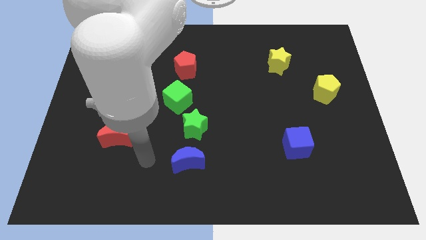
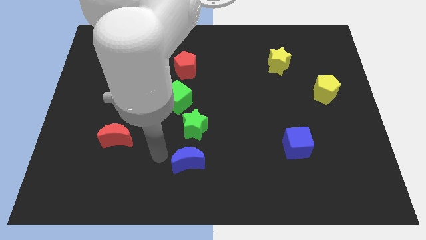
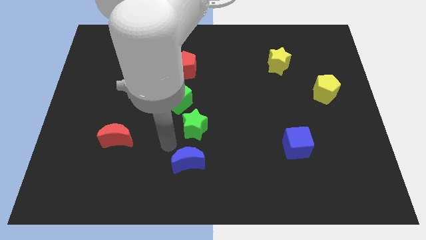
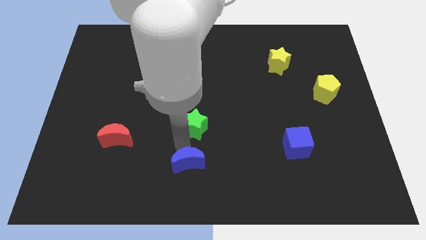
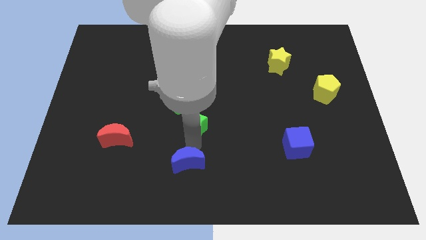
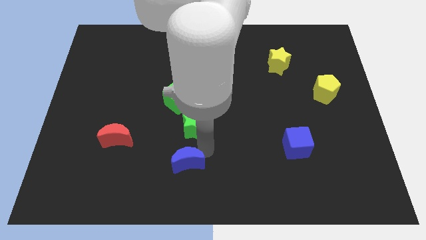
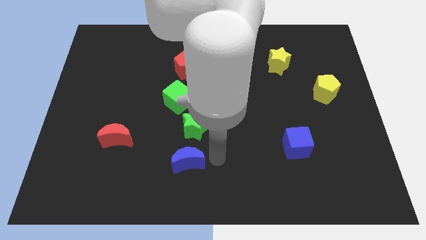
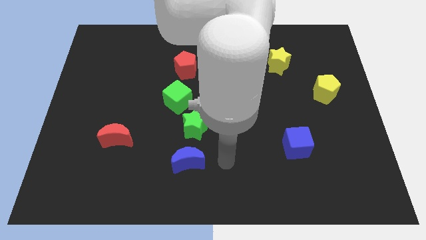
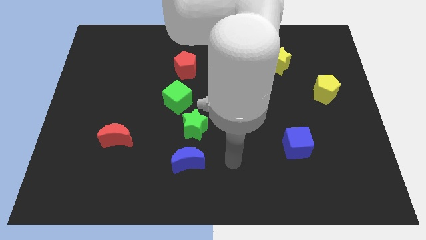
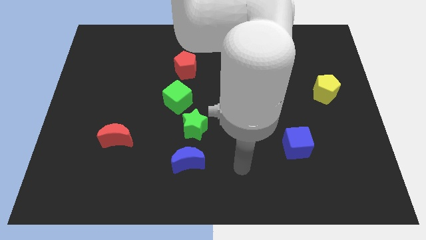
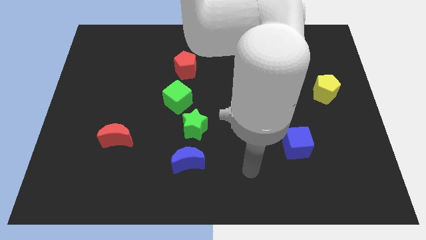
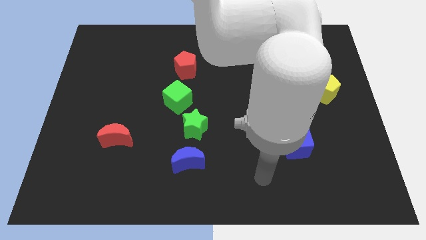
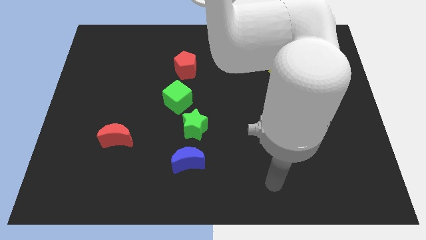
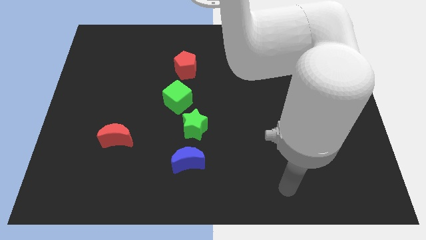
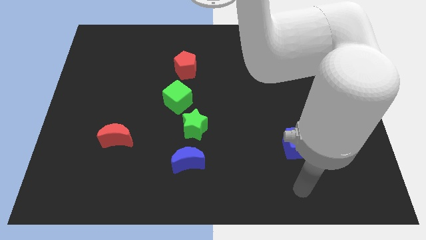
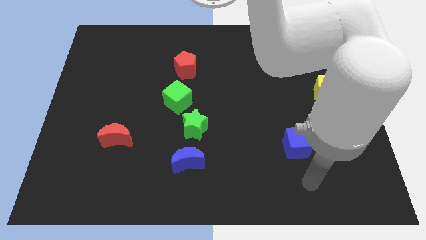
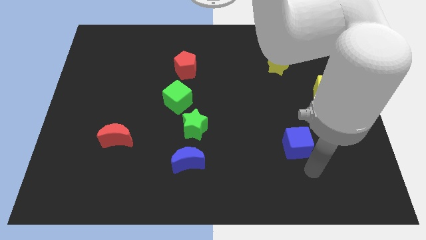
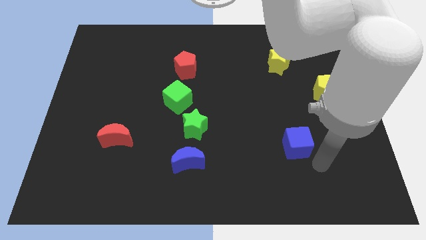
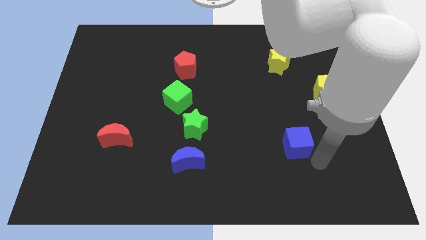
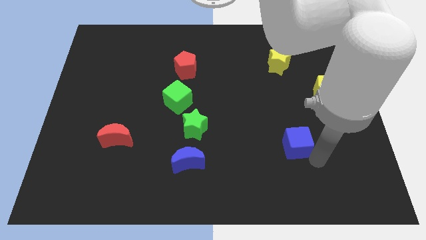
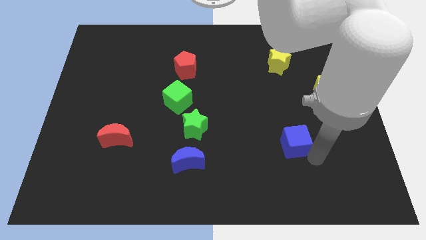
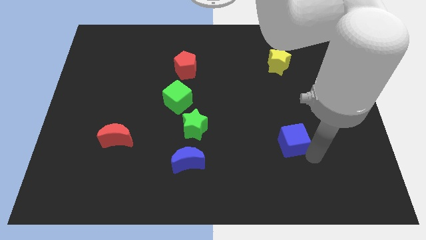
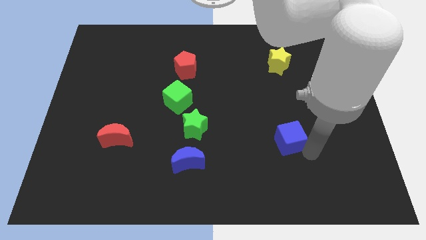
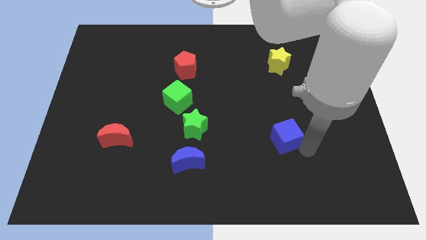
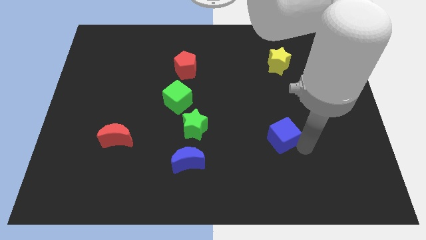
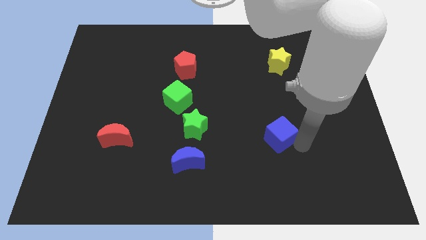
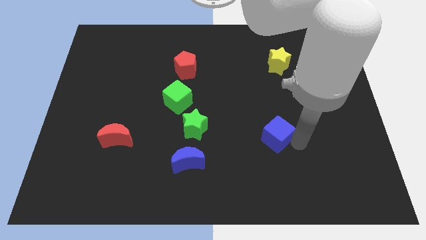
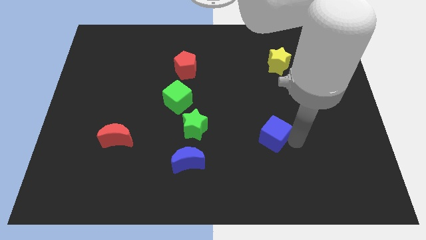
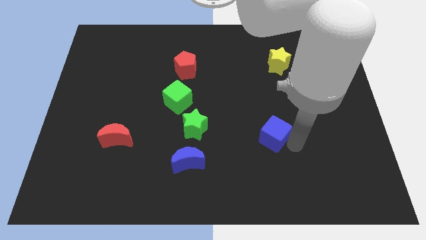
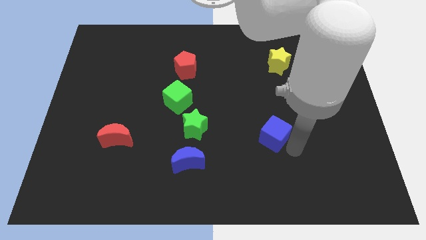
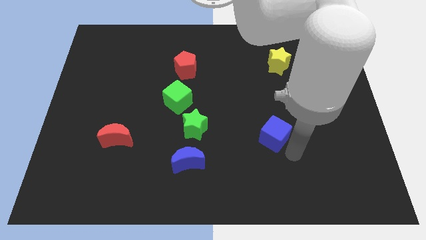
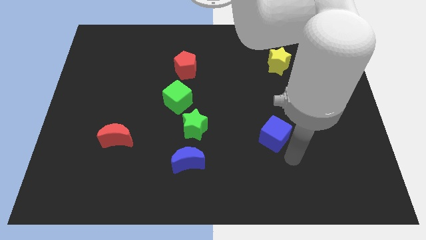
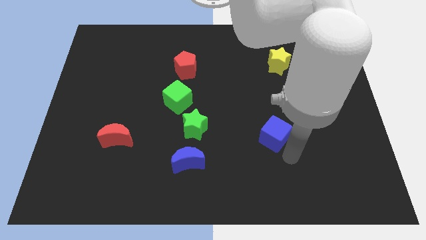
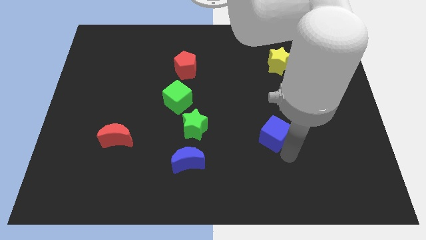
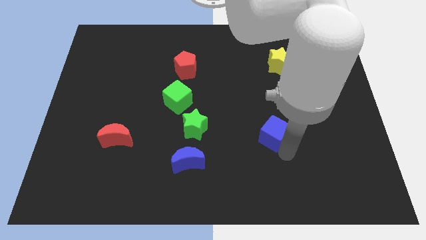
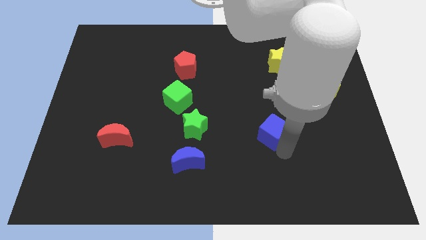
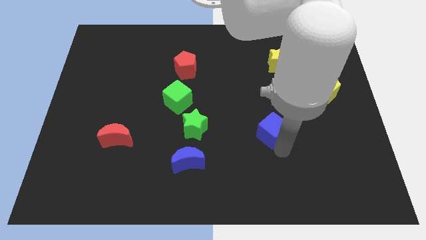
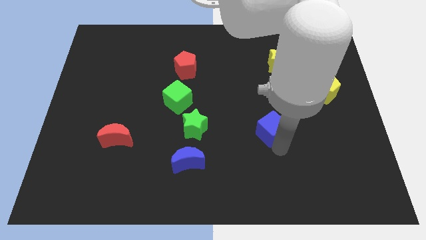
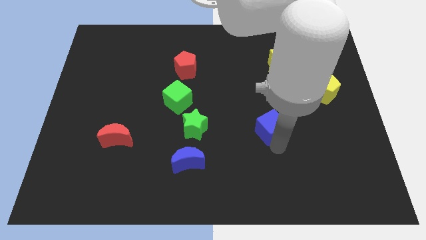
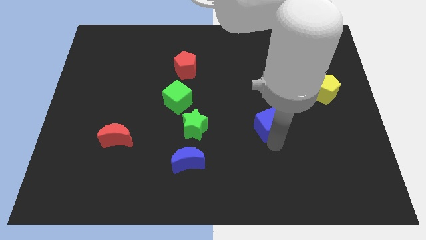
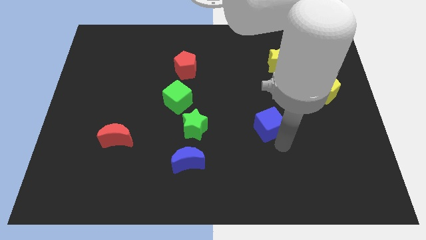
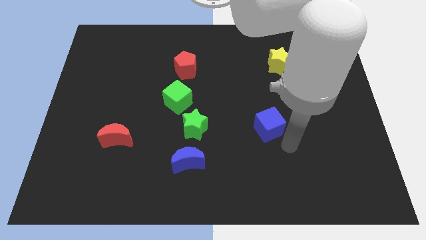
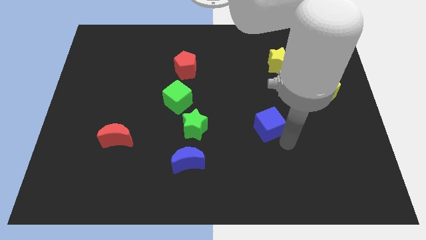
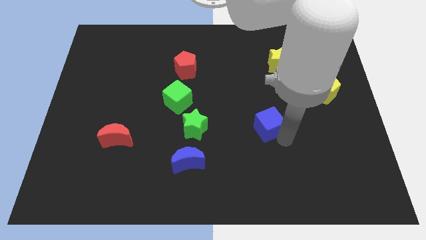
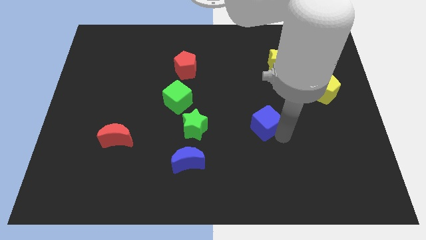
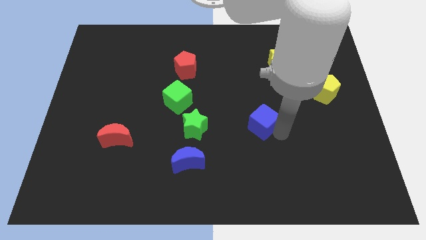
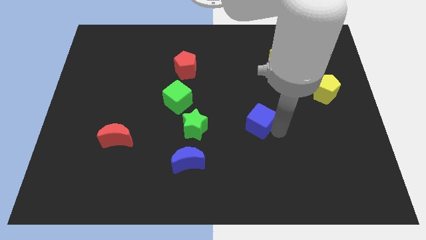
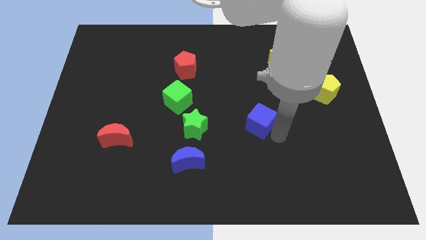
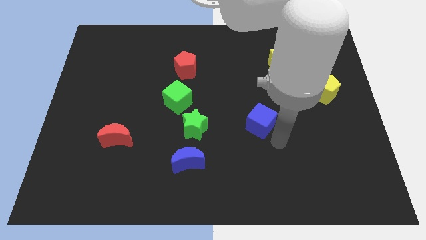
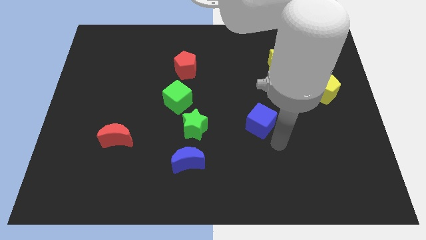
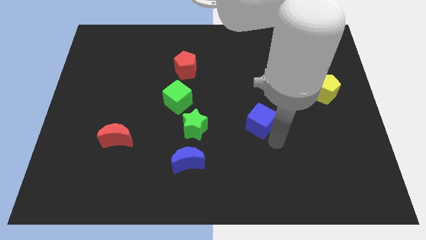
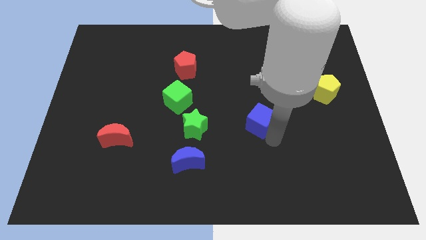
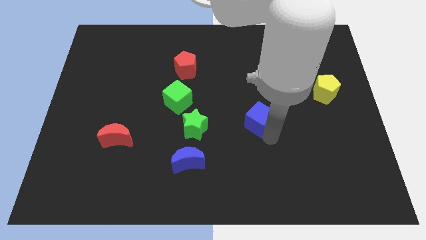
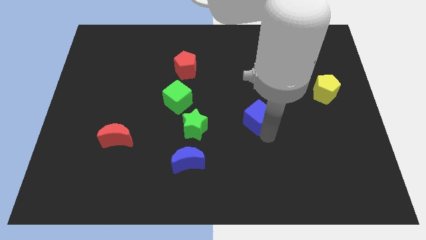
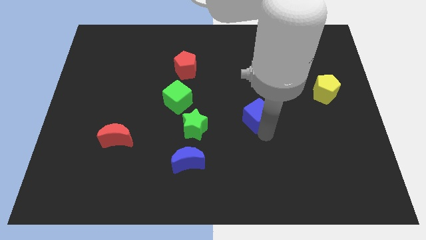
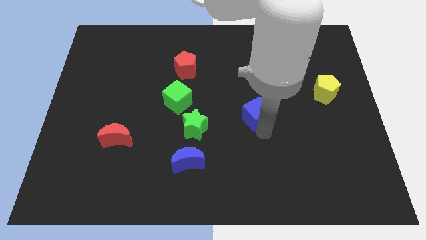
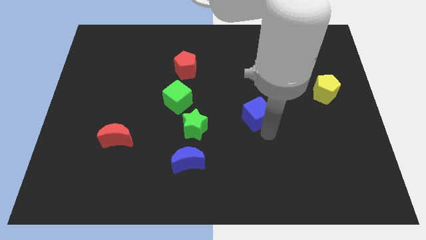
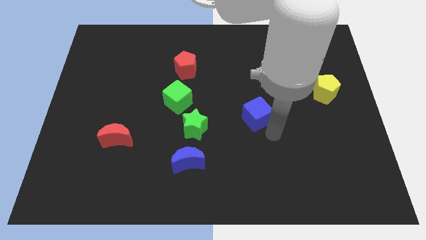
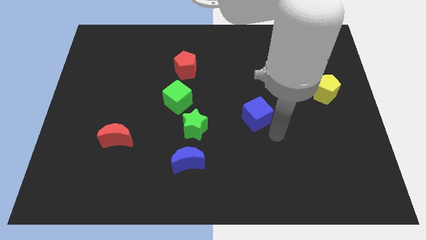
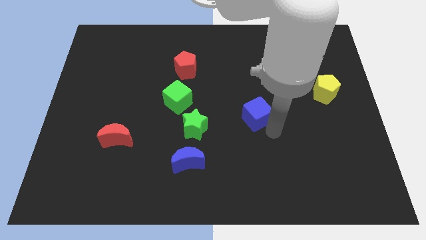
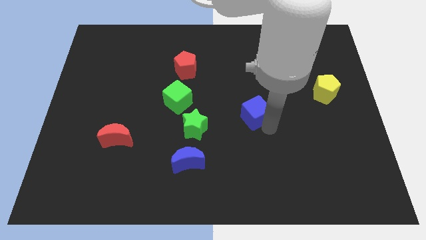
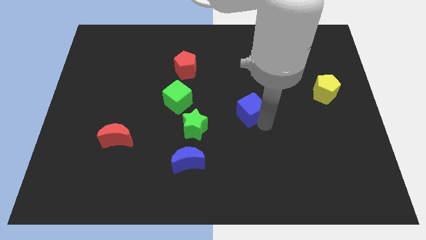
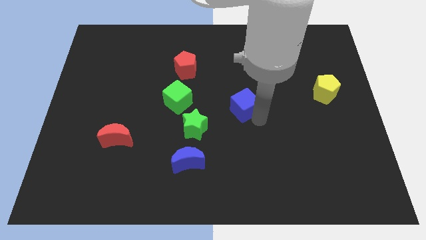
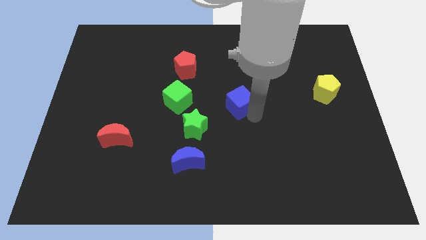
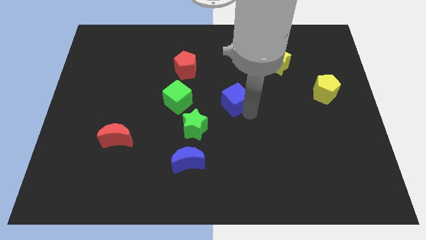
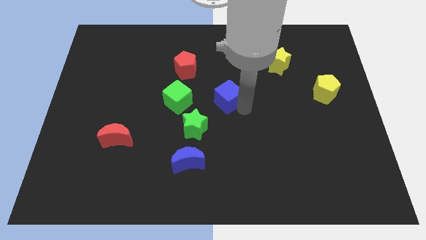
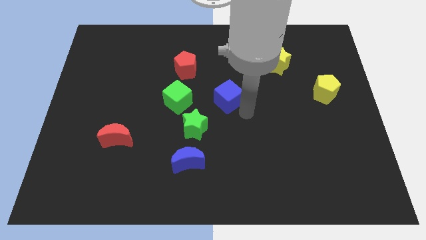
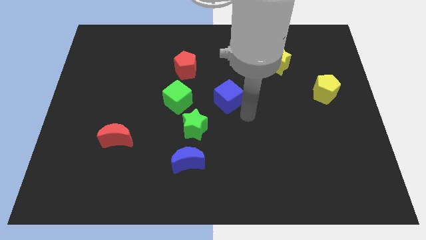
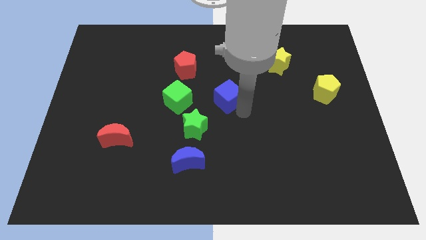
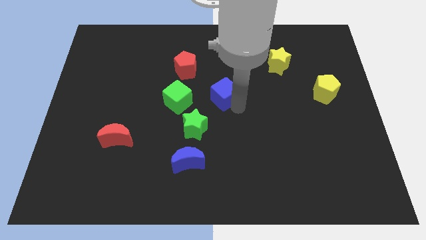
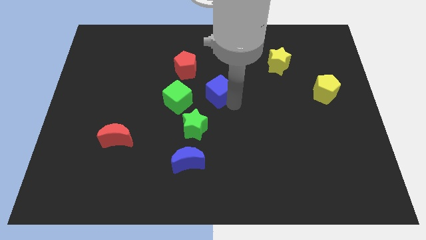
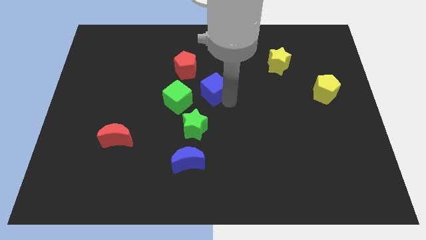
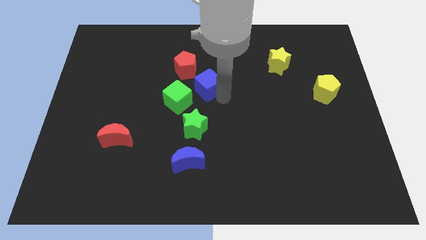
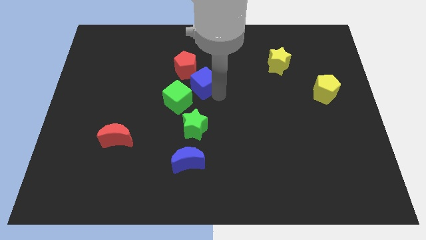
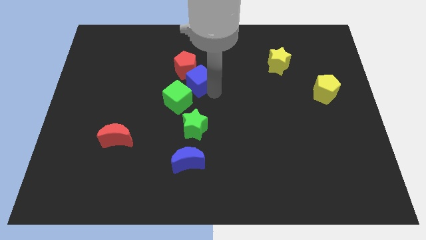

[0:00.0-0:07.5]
slide the blue cube close to the red pentagon
